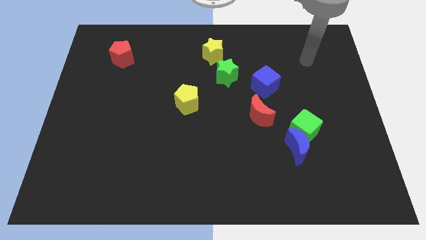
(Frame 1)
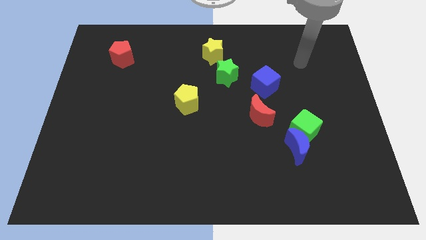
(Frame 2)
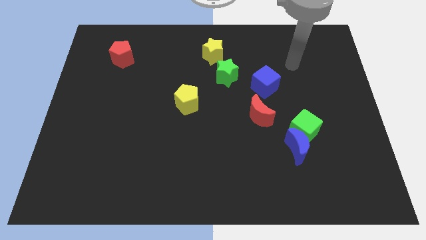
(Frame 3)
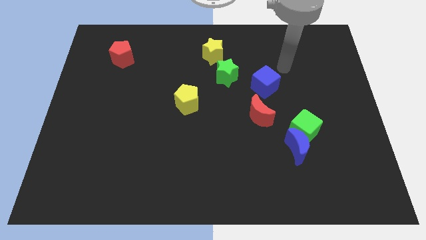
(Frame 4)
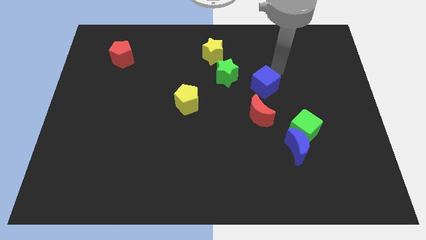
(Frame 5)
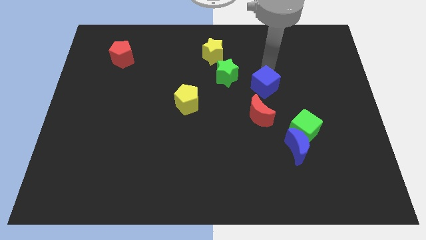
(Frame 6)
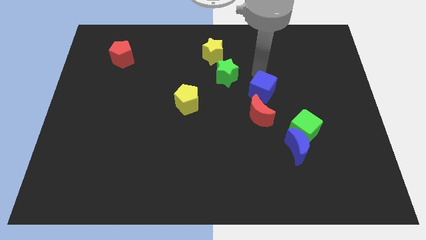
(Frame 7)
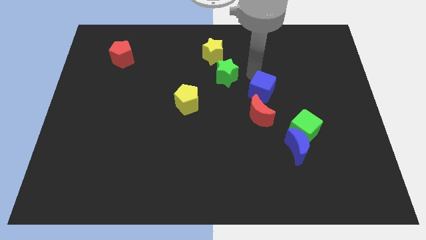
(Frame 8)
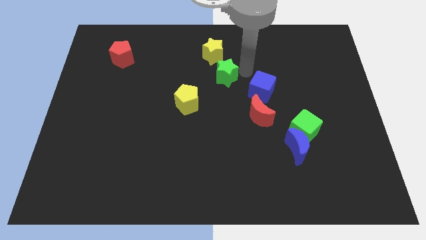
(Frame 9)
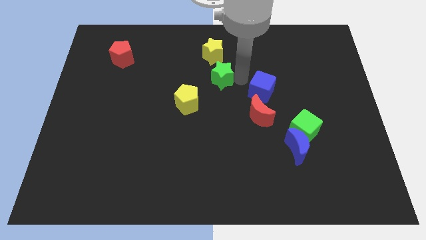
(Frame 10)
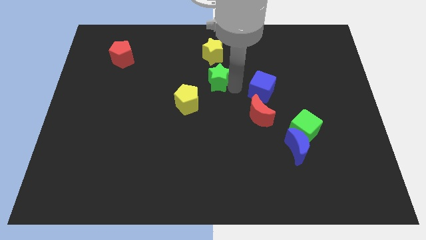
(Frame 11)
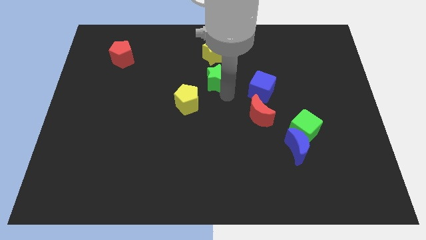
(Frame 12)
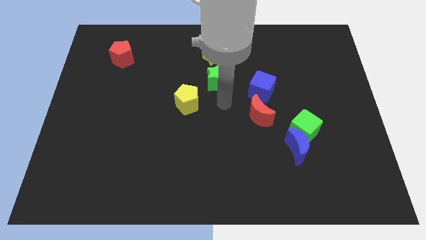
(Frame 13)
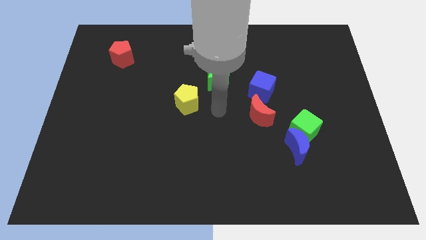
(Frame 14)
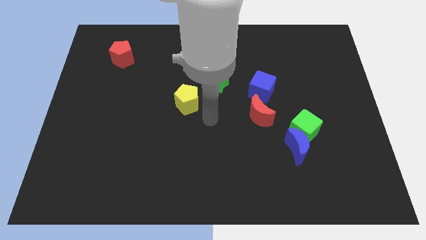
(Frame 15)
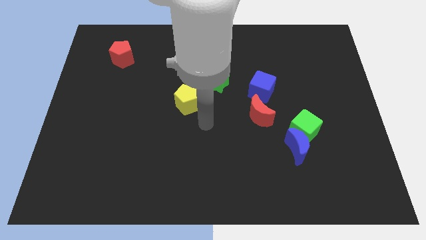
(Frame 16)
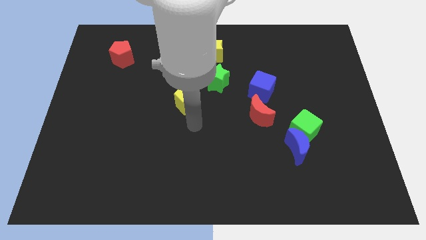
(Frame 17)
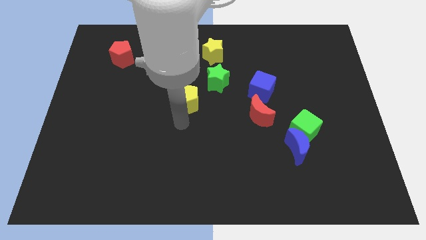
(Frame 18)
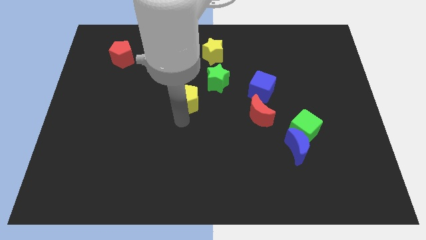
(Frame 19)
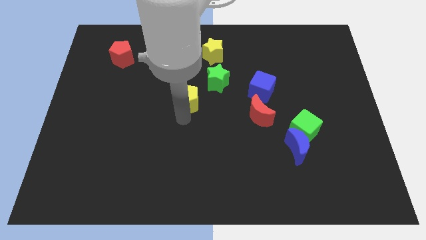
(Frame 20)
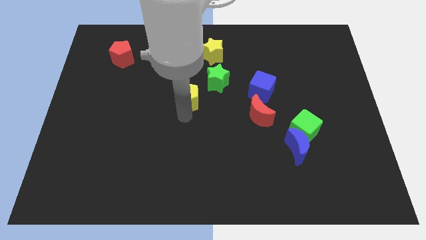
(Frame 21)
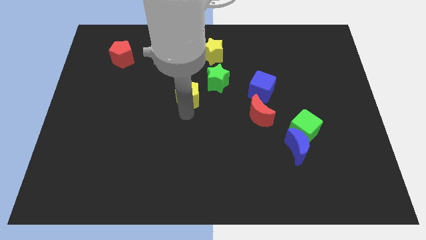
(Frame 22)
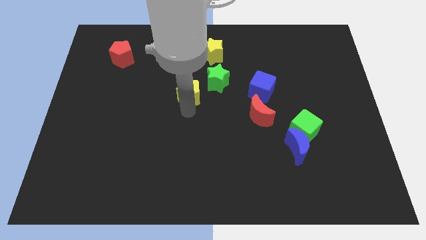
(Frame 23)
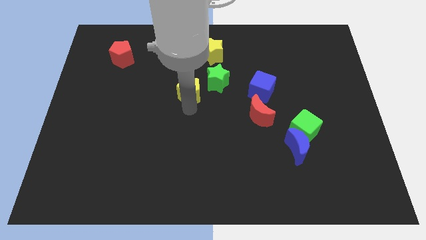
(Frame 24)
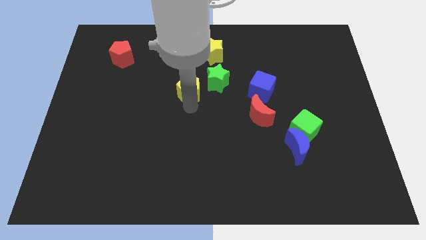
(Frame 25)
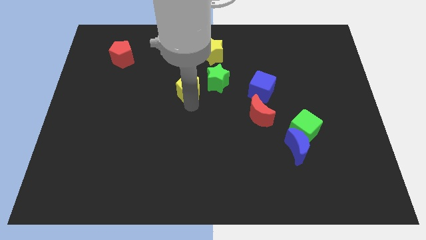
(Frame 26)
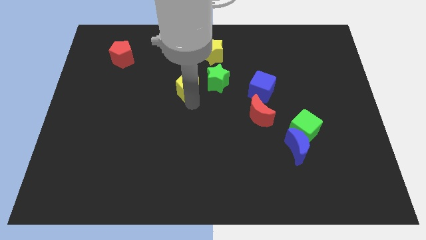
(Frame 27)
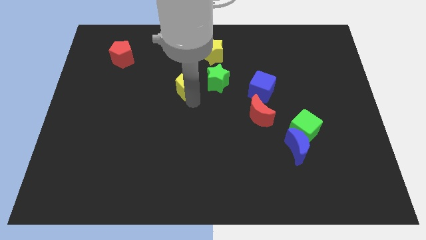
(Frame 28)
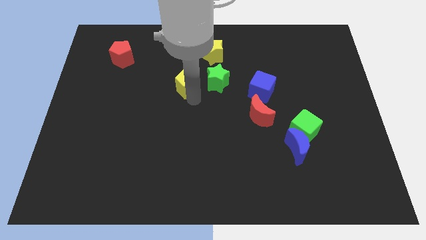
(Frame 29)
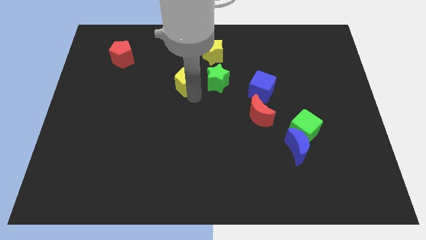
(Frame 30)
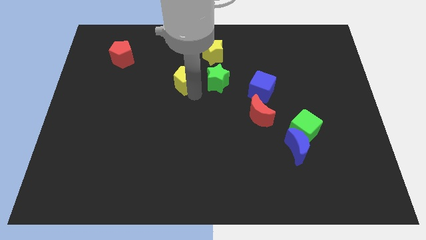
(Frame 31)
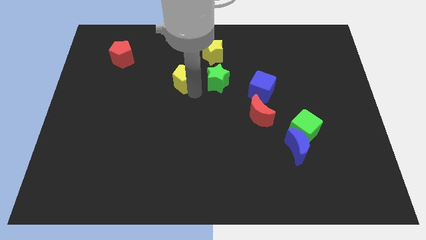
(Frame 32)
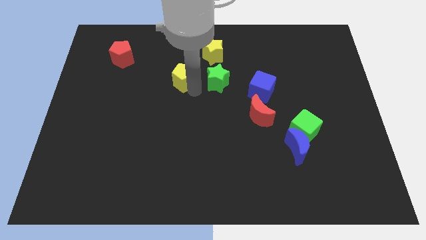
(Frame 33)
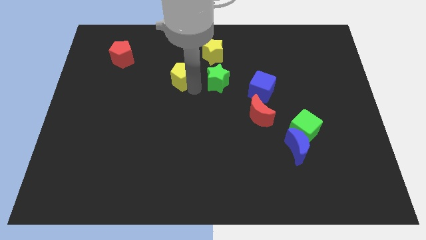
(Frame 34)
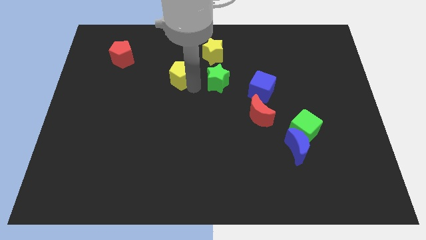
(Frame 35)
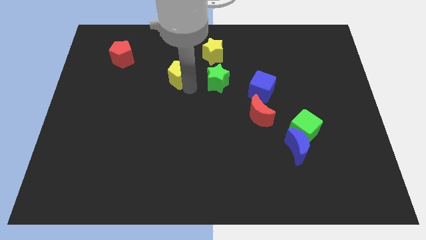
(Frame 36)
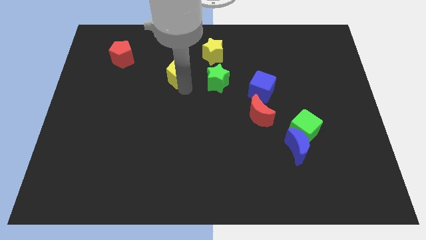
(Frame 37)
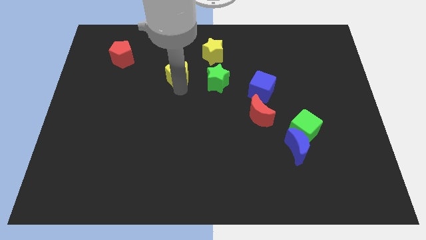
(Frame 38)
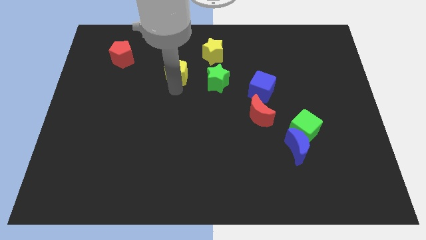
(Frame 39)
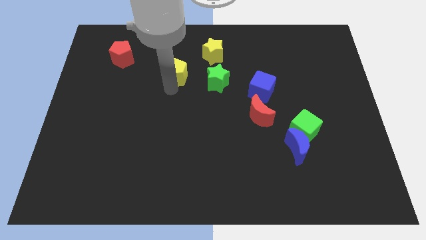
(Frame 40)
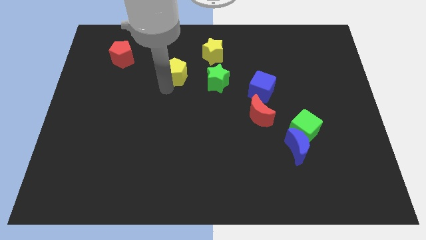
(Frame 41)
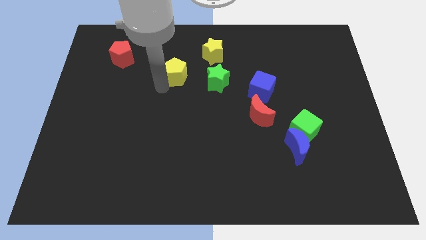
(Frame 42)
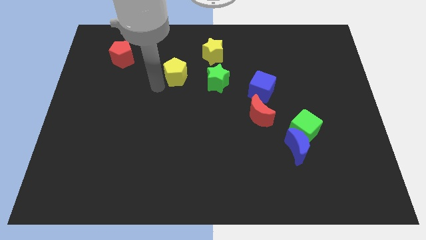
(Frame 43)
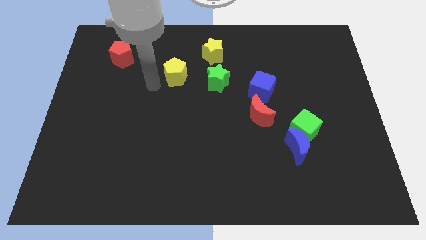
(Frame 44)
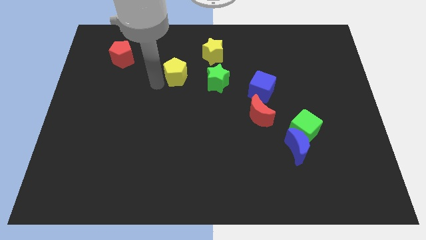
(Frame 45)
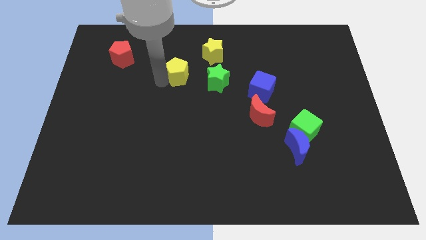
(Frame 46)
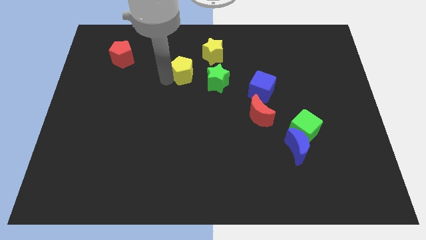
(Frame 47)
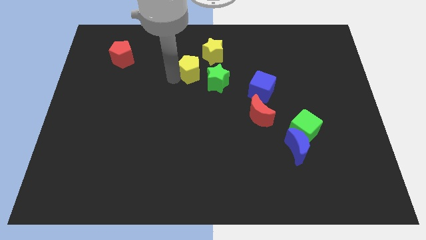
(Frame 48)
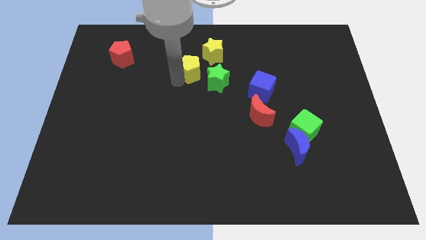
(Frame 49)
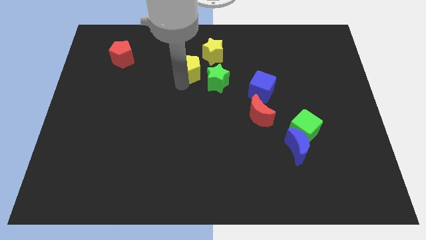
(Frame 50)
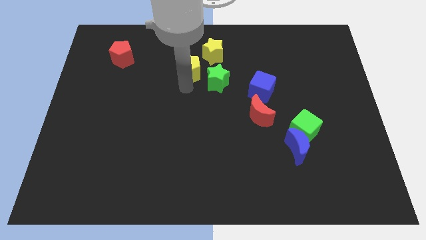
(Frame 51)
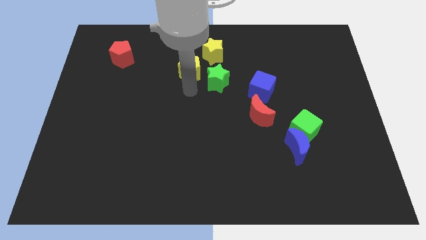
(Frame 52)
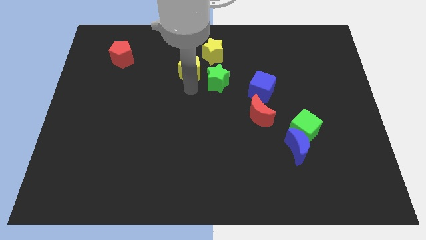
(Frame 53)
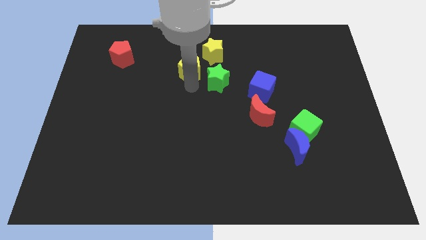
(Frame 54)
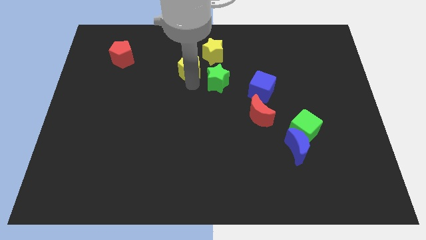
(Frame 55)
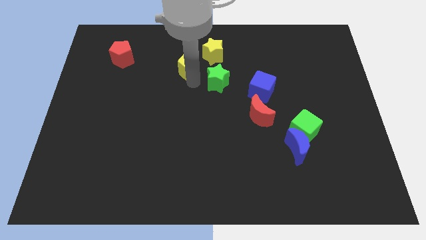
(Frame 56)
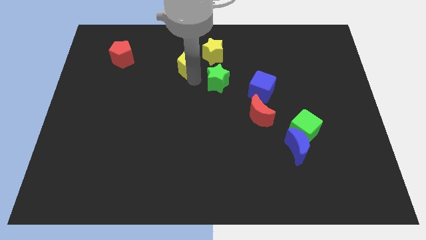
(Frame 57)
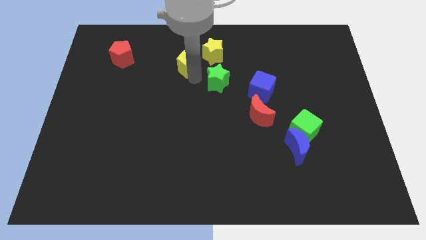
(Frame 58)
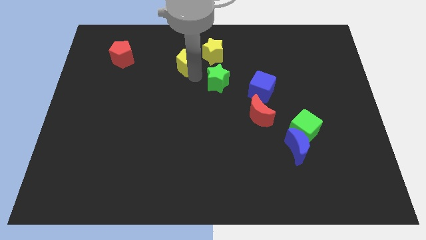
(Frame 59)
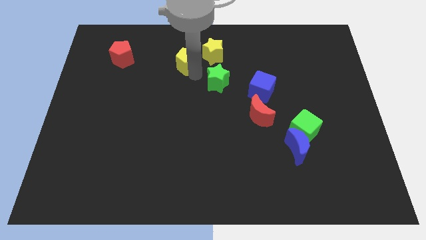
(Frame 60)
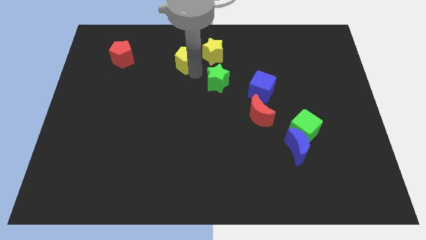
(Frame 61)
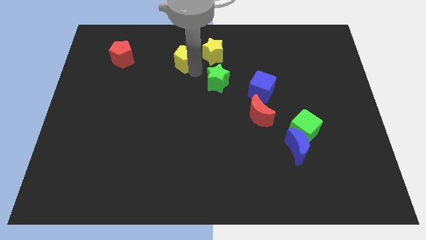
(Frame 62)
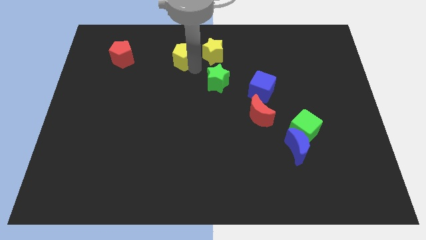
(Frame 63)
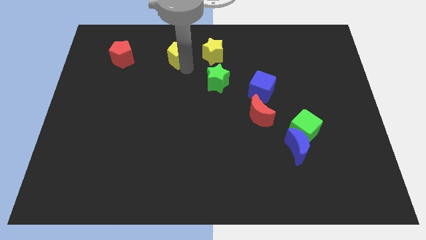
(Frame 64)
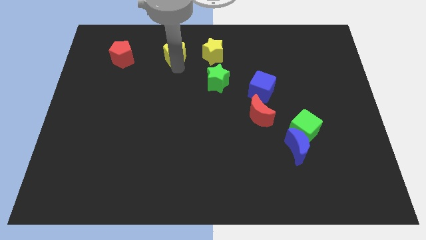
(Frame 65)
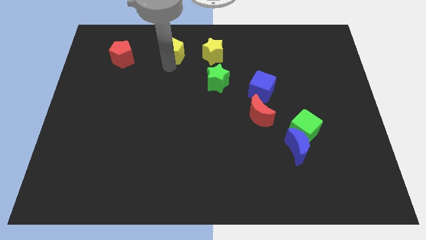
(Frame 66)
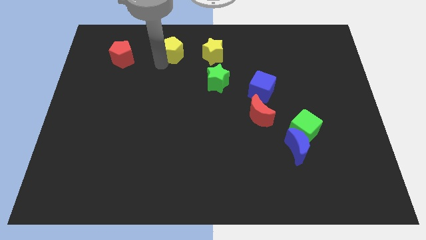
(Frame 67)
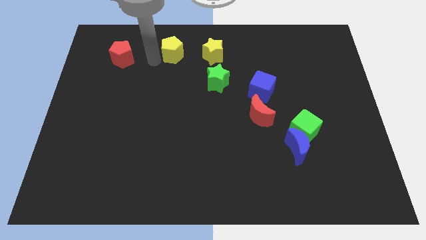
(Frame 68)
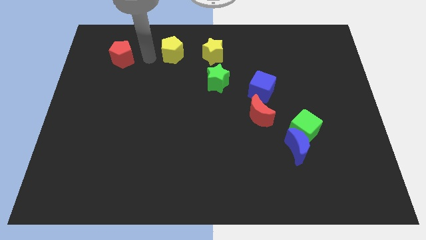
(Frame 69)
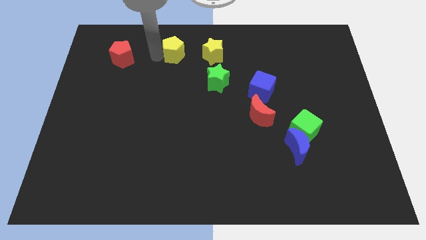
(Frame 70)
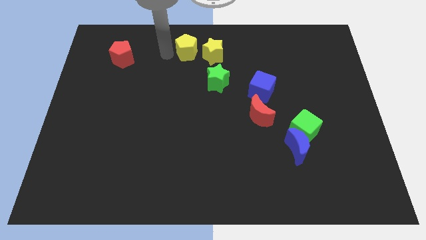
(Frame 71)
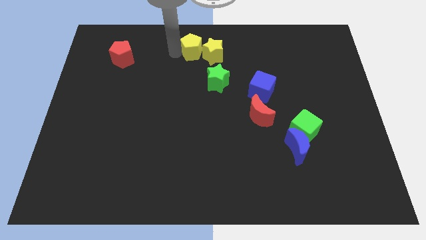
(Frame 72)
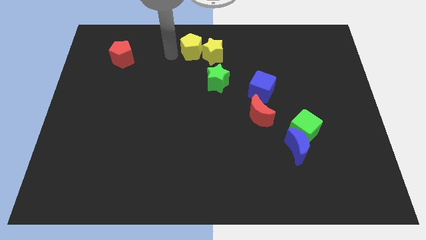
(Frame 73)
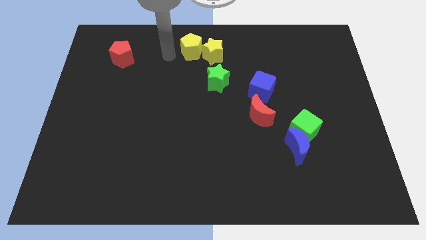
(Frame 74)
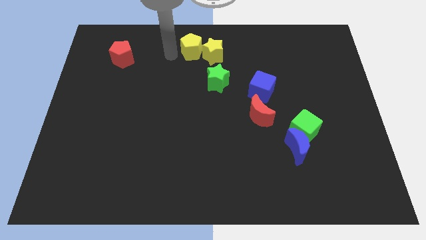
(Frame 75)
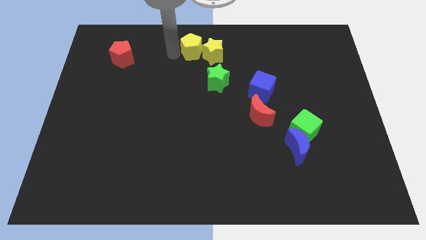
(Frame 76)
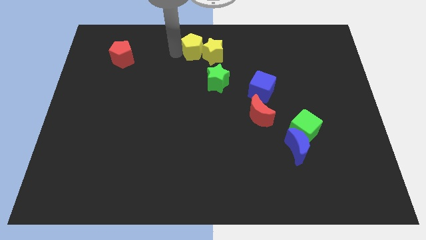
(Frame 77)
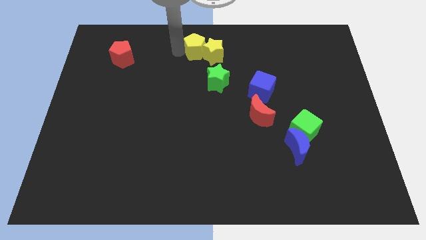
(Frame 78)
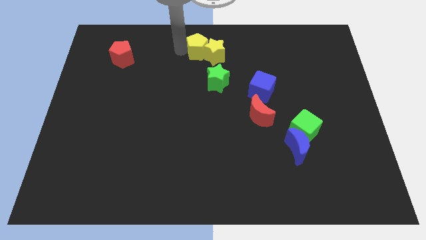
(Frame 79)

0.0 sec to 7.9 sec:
slightly move the yellow pentagon up and then right
